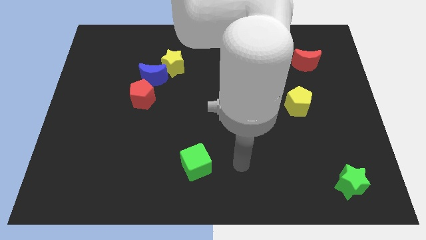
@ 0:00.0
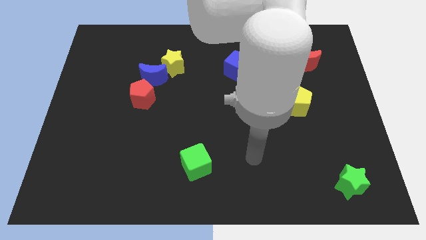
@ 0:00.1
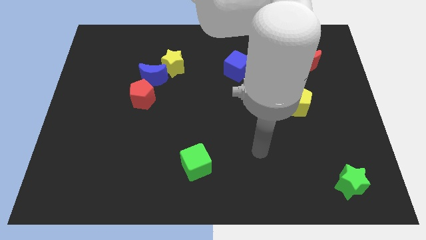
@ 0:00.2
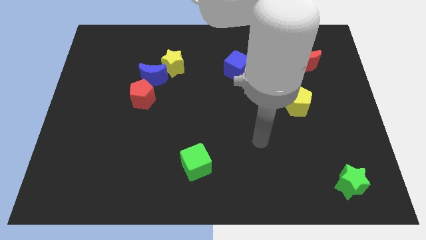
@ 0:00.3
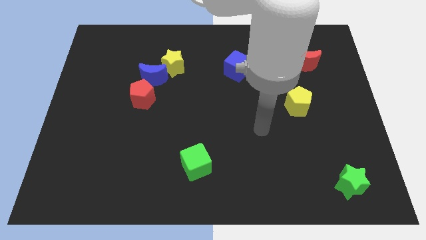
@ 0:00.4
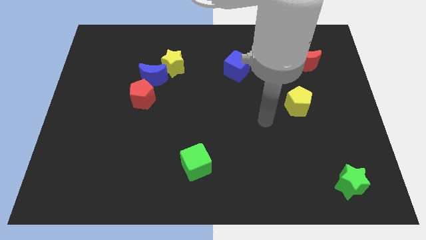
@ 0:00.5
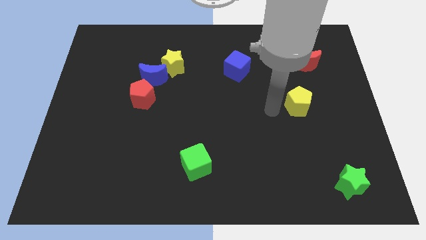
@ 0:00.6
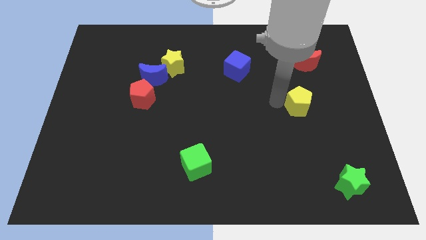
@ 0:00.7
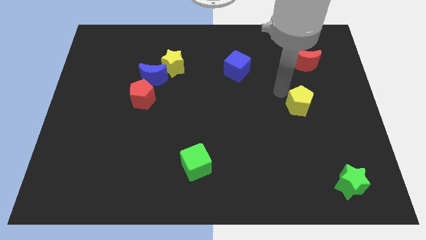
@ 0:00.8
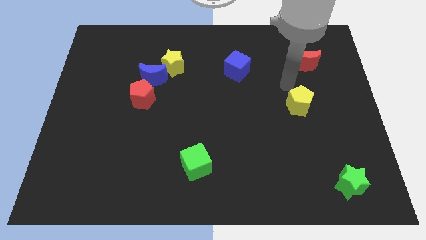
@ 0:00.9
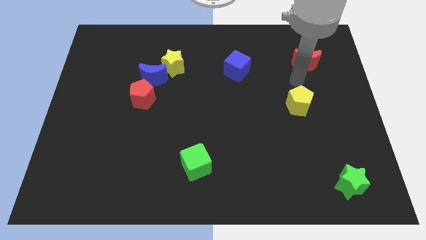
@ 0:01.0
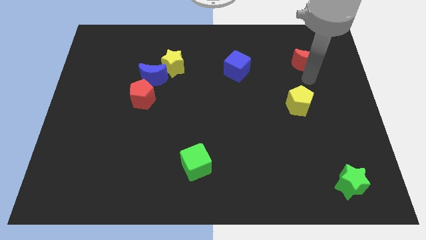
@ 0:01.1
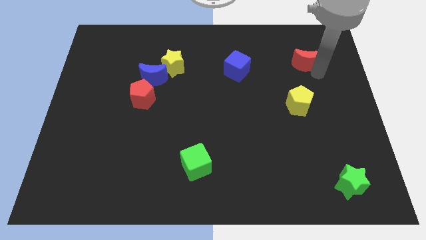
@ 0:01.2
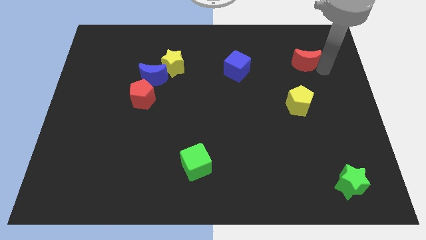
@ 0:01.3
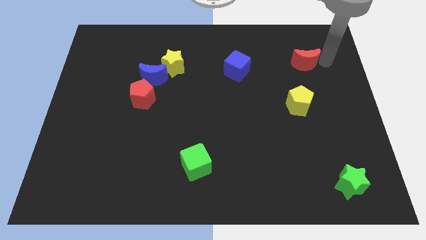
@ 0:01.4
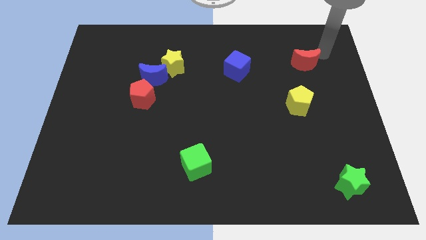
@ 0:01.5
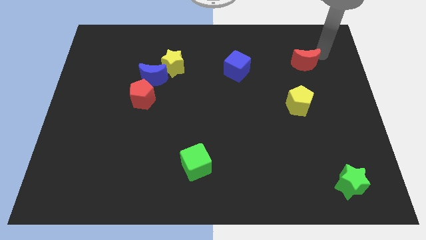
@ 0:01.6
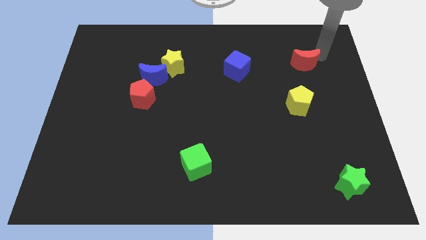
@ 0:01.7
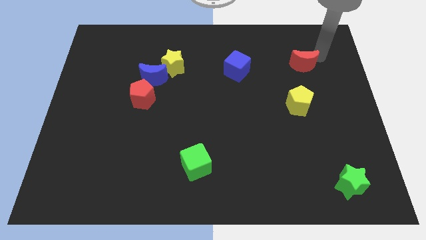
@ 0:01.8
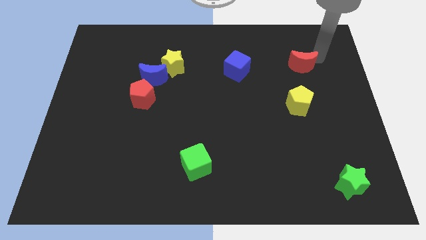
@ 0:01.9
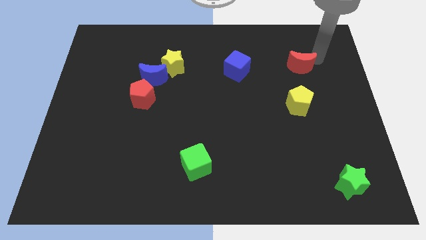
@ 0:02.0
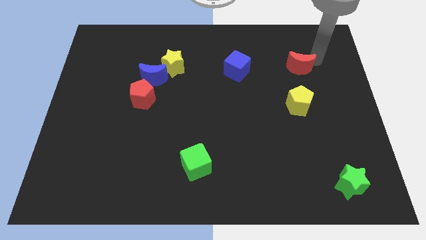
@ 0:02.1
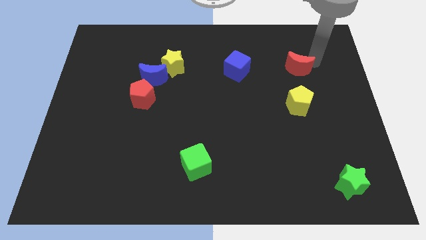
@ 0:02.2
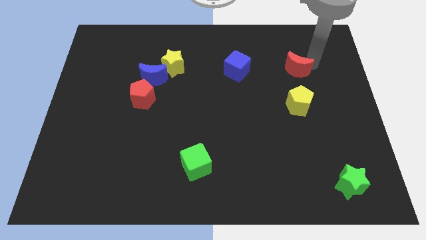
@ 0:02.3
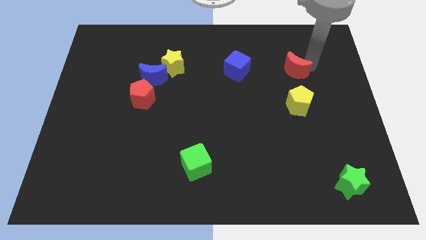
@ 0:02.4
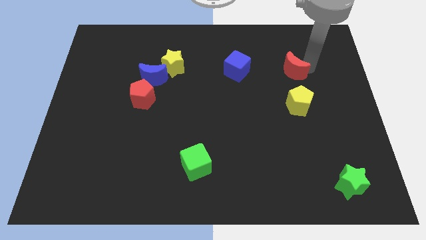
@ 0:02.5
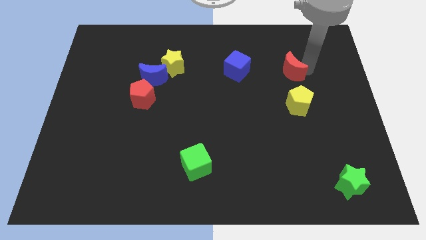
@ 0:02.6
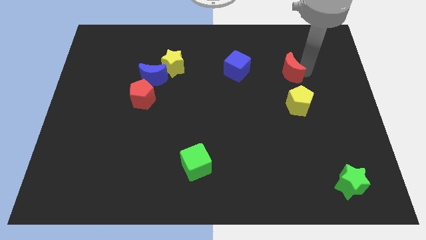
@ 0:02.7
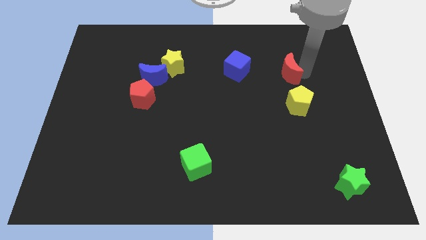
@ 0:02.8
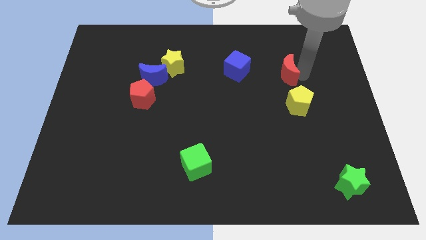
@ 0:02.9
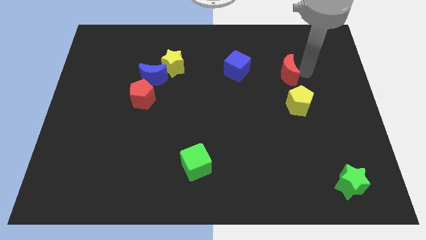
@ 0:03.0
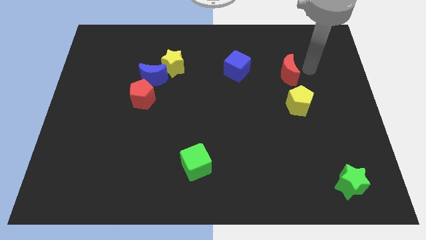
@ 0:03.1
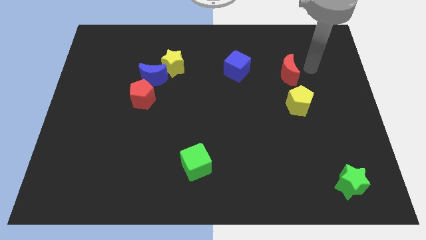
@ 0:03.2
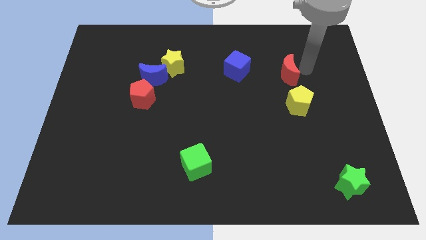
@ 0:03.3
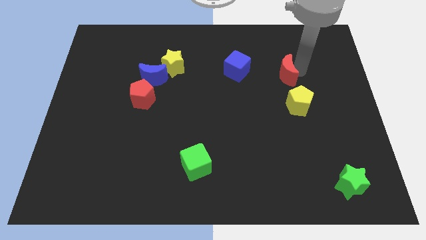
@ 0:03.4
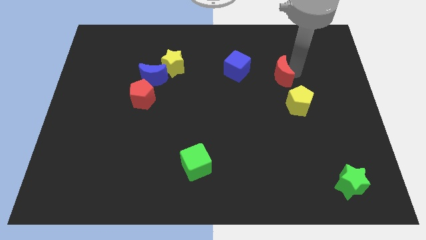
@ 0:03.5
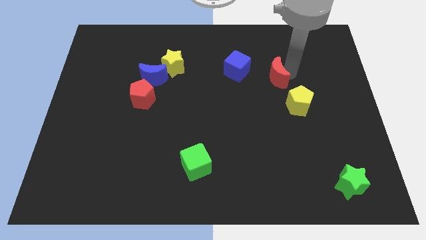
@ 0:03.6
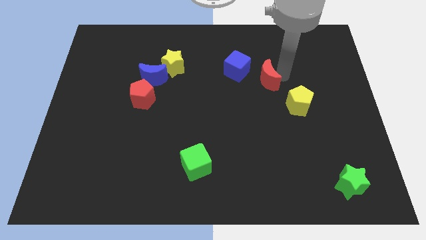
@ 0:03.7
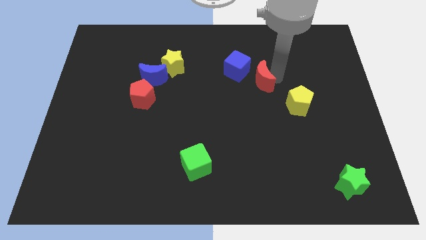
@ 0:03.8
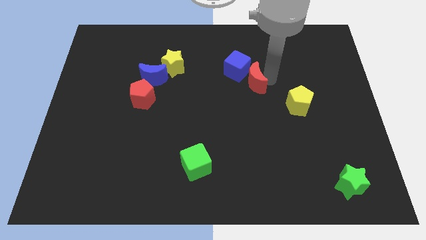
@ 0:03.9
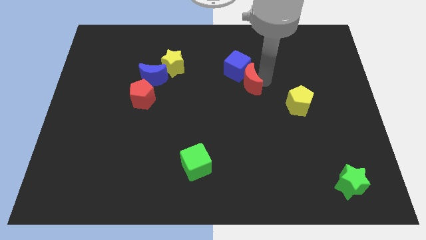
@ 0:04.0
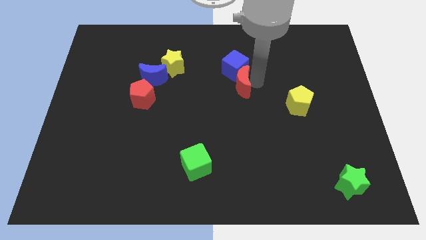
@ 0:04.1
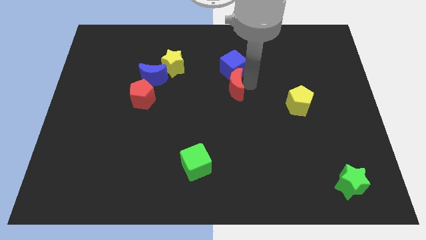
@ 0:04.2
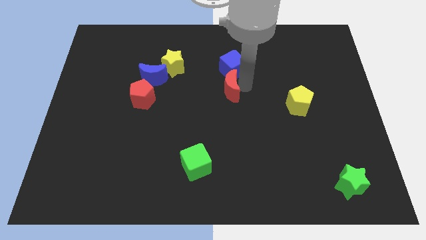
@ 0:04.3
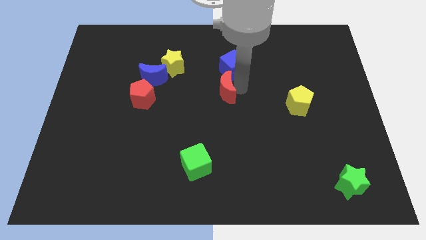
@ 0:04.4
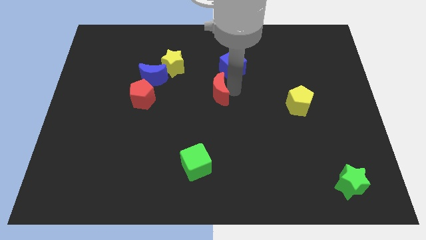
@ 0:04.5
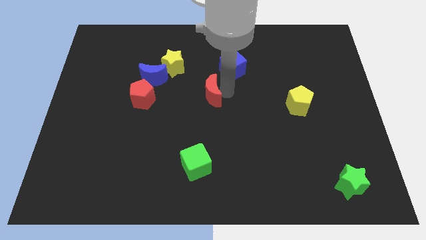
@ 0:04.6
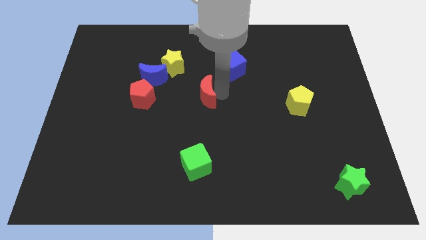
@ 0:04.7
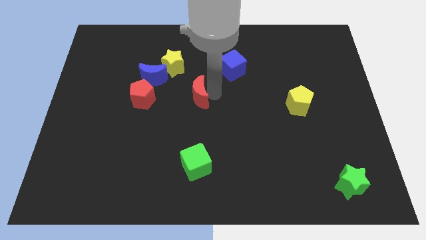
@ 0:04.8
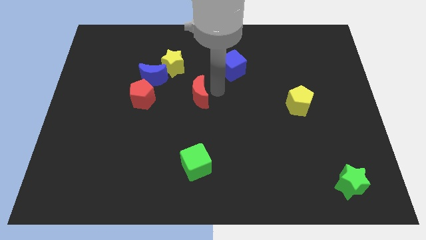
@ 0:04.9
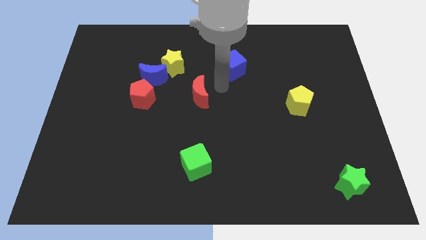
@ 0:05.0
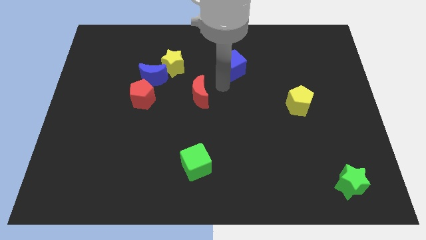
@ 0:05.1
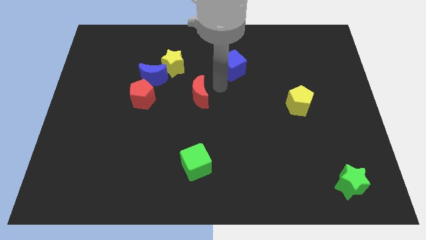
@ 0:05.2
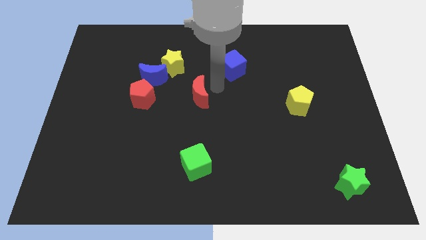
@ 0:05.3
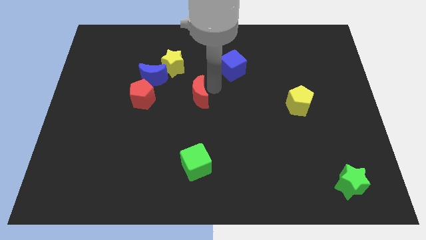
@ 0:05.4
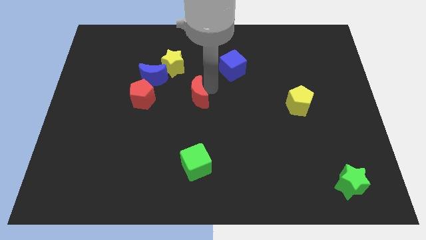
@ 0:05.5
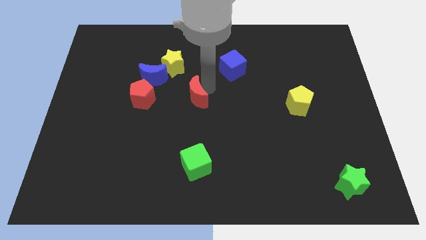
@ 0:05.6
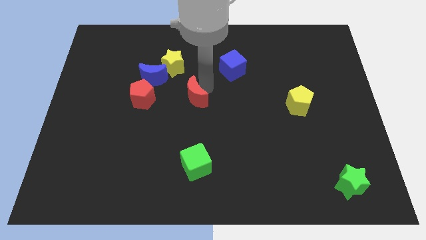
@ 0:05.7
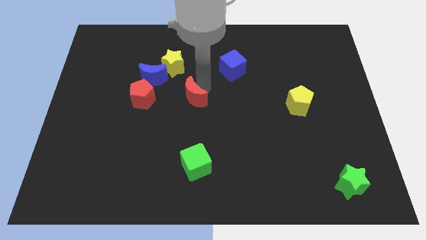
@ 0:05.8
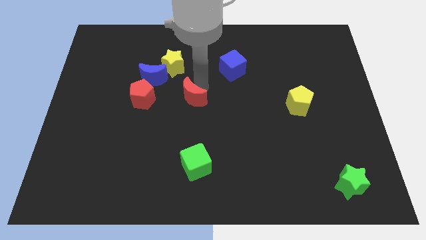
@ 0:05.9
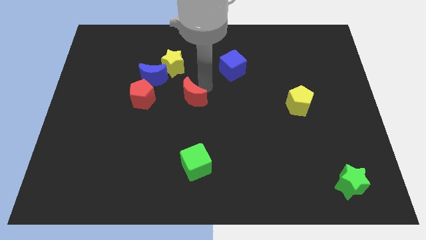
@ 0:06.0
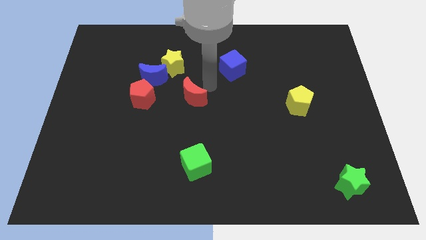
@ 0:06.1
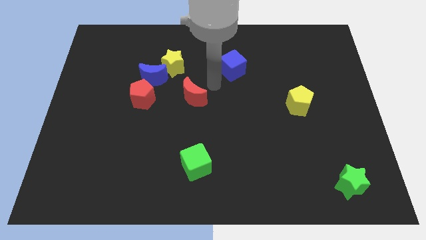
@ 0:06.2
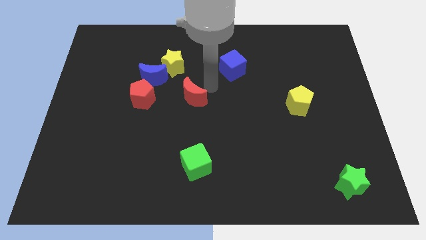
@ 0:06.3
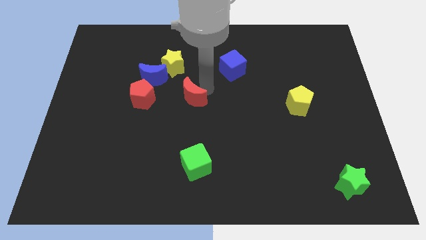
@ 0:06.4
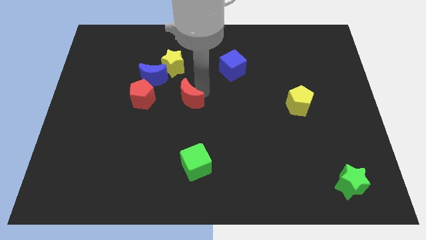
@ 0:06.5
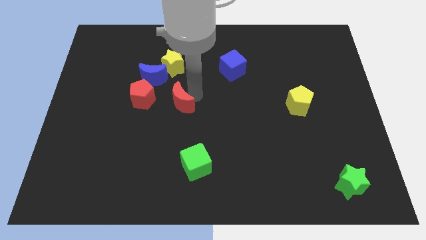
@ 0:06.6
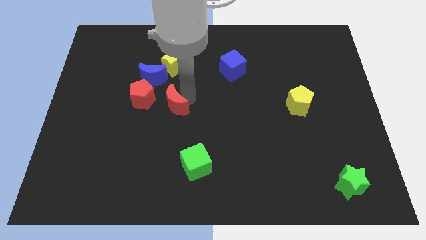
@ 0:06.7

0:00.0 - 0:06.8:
push the red moon to the bottom right of the red pentagon
